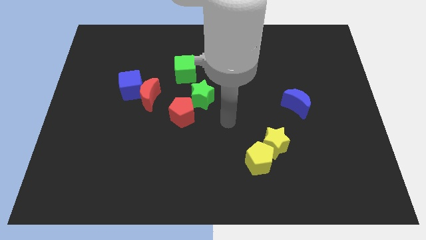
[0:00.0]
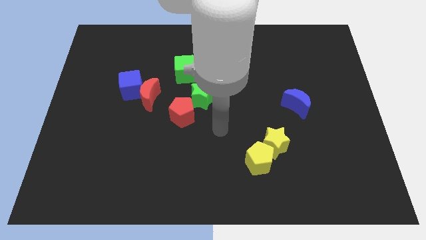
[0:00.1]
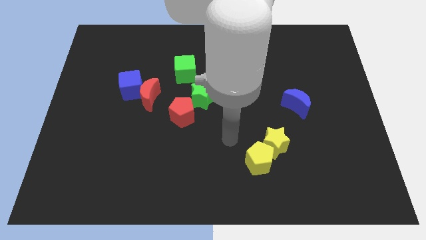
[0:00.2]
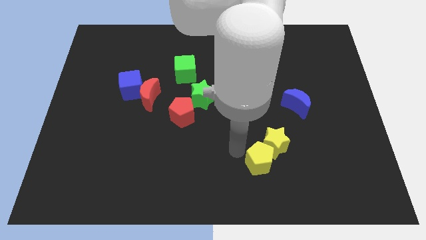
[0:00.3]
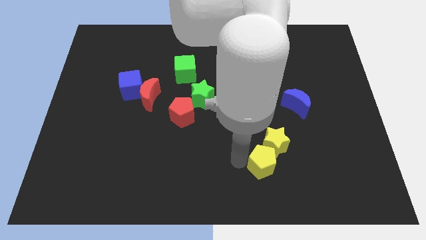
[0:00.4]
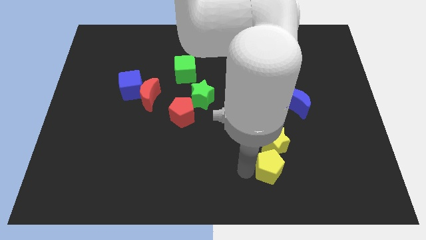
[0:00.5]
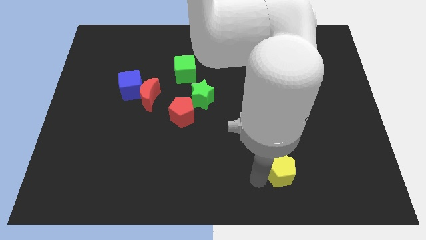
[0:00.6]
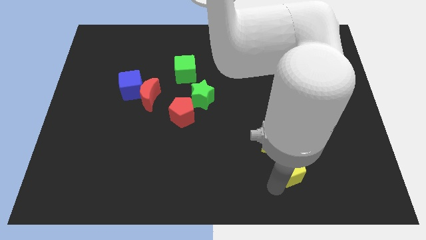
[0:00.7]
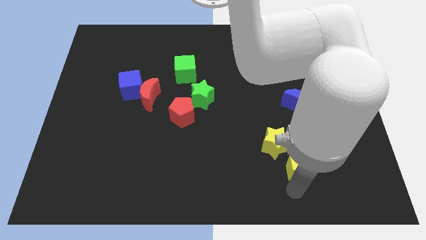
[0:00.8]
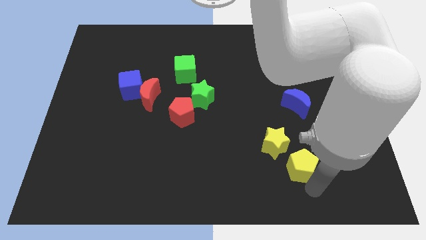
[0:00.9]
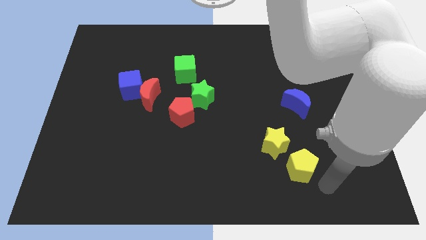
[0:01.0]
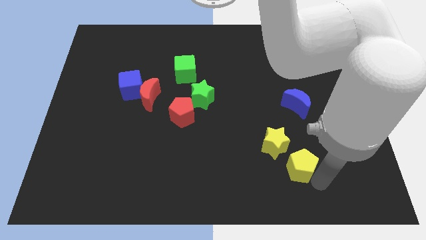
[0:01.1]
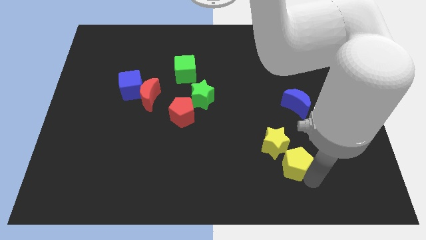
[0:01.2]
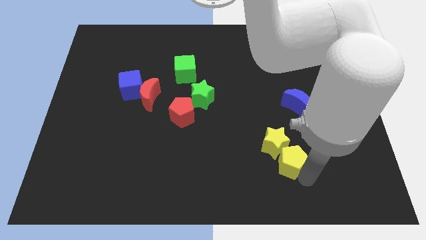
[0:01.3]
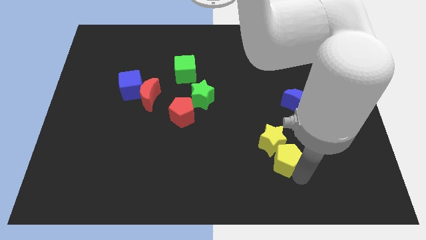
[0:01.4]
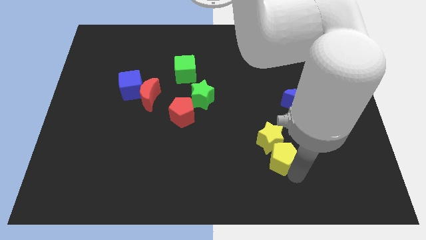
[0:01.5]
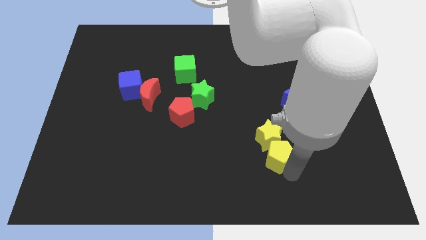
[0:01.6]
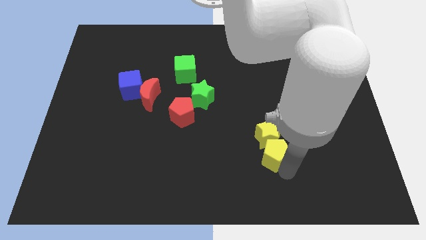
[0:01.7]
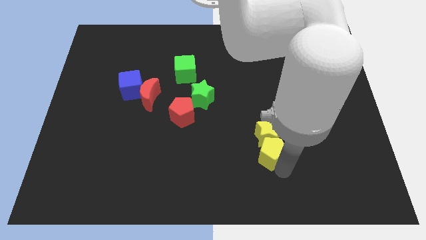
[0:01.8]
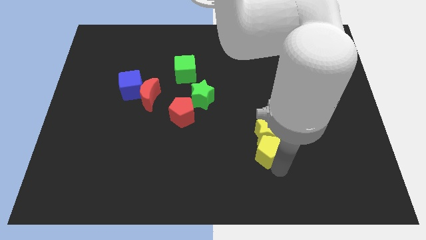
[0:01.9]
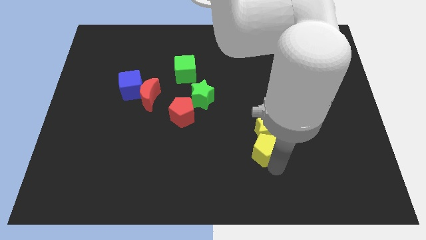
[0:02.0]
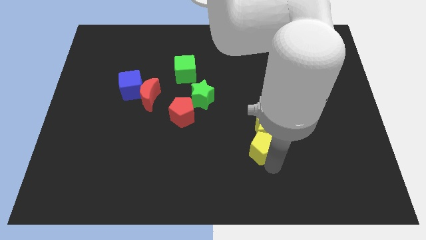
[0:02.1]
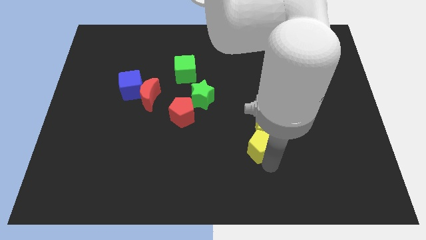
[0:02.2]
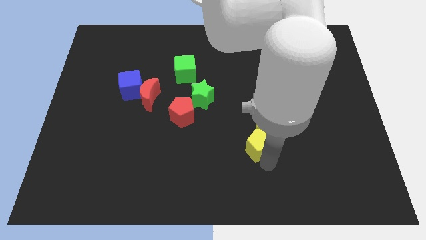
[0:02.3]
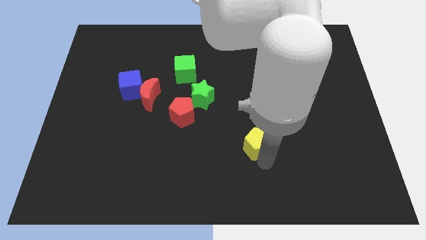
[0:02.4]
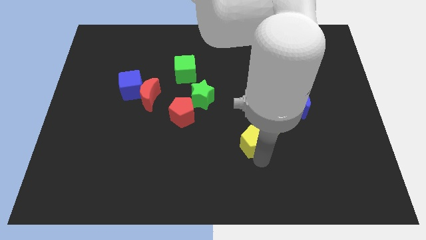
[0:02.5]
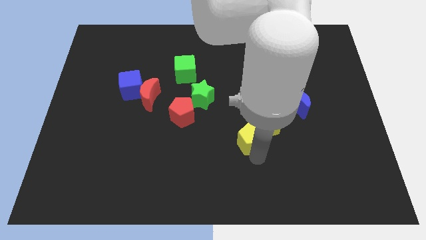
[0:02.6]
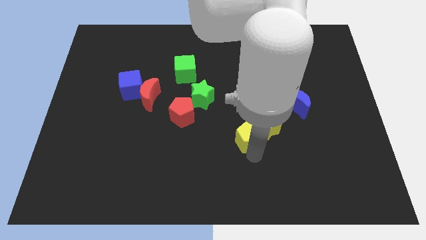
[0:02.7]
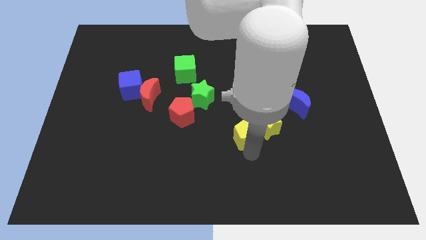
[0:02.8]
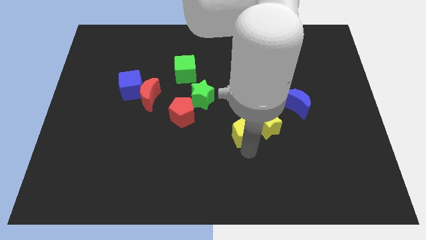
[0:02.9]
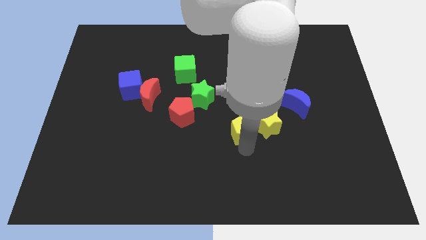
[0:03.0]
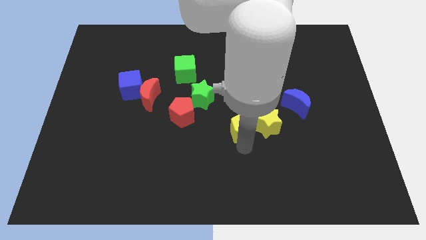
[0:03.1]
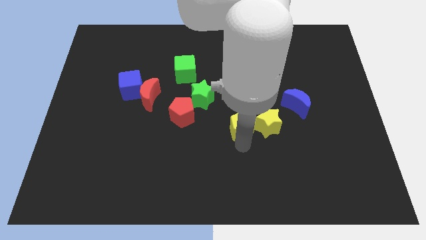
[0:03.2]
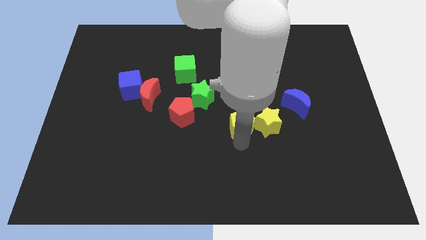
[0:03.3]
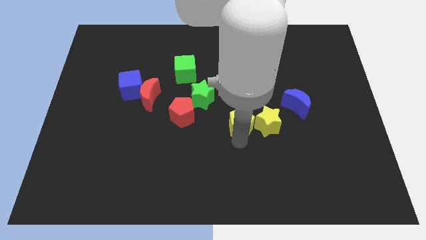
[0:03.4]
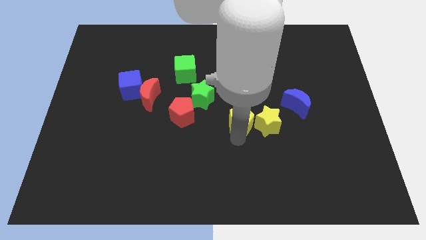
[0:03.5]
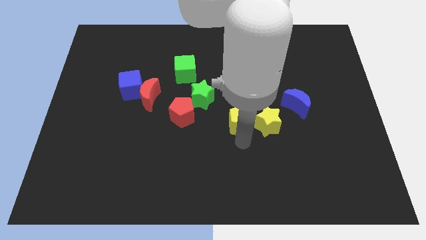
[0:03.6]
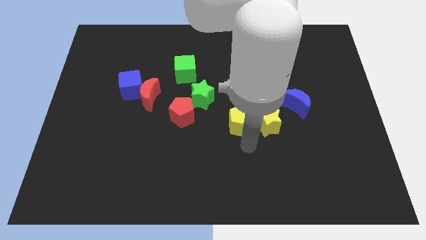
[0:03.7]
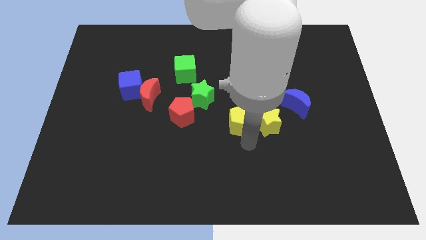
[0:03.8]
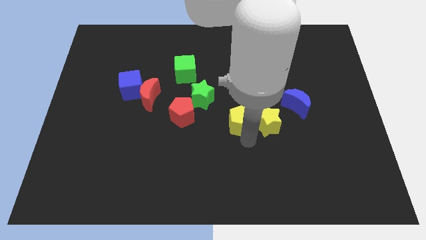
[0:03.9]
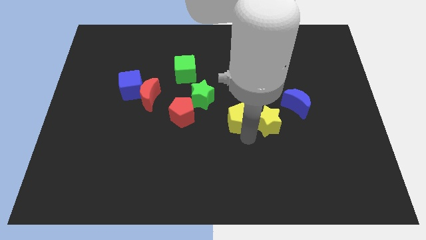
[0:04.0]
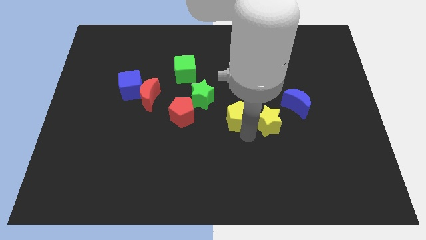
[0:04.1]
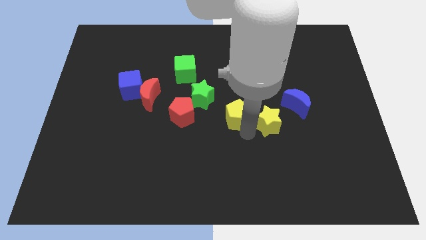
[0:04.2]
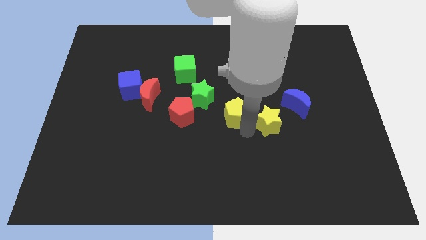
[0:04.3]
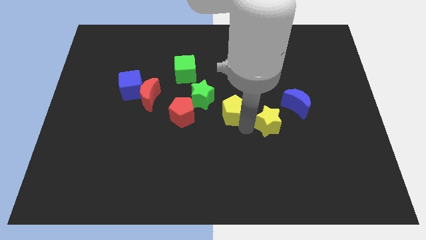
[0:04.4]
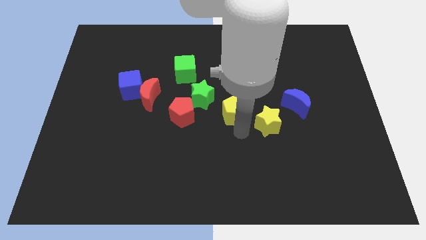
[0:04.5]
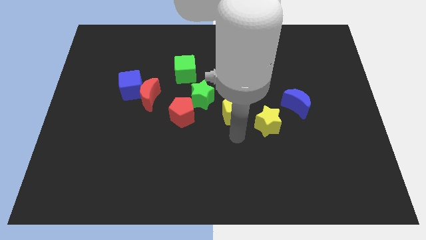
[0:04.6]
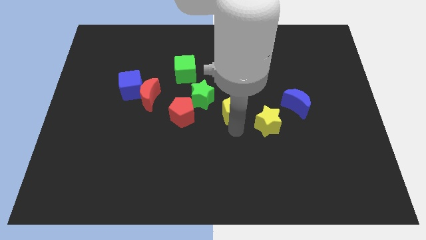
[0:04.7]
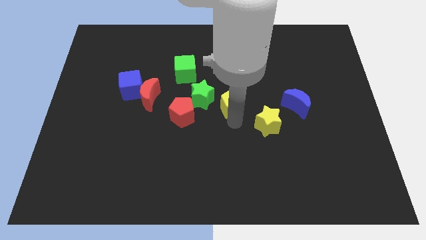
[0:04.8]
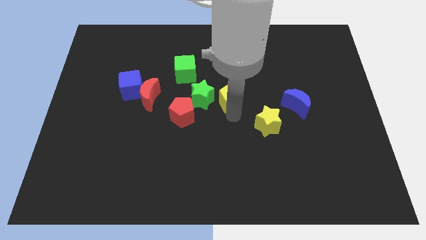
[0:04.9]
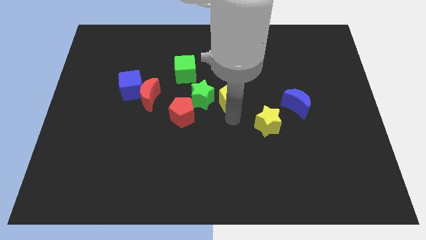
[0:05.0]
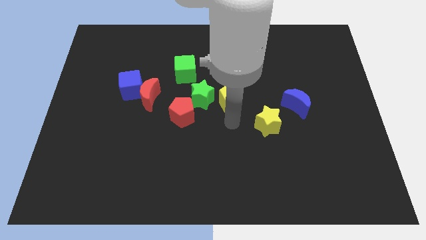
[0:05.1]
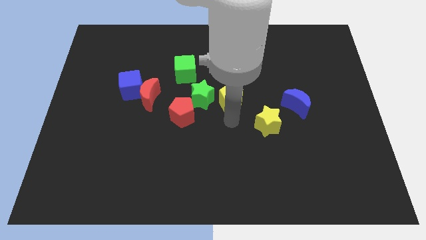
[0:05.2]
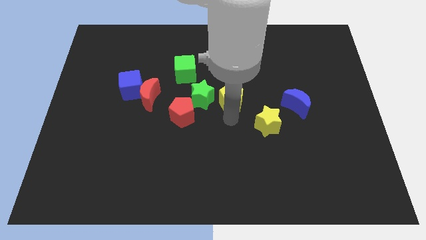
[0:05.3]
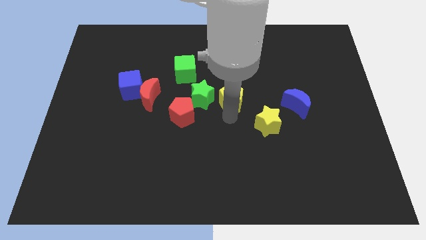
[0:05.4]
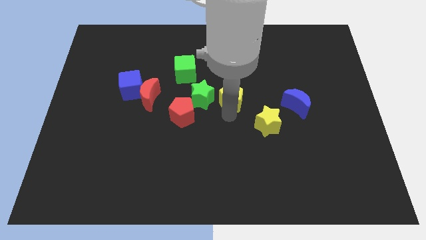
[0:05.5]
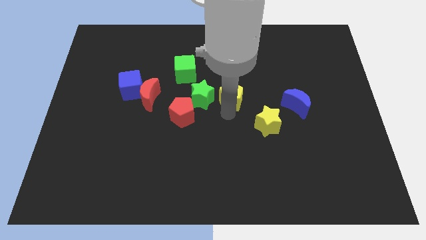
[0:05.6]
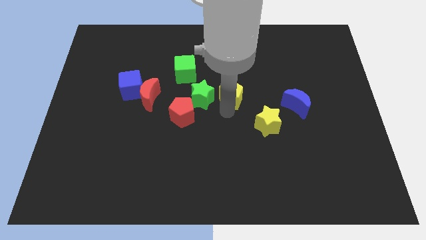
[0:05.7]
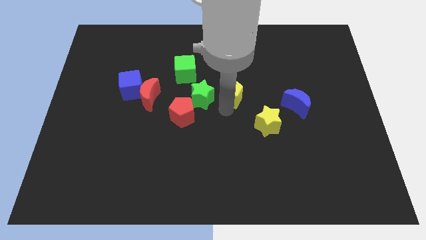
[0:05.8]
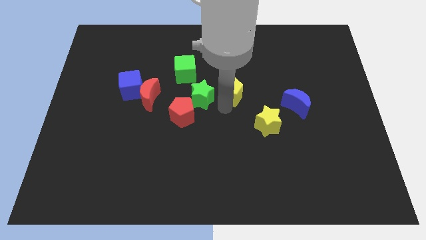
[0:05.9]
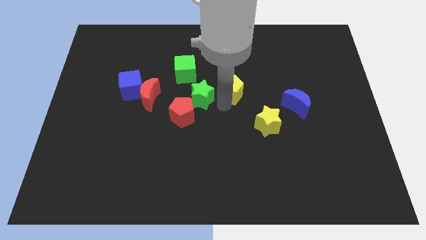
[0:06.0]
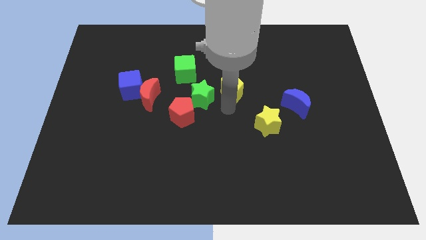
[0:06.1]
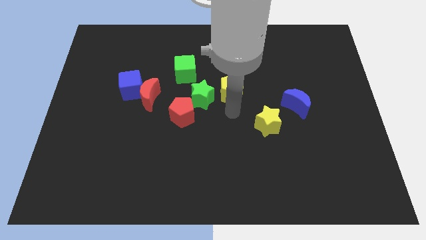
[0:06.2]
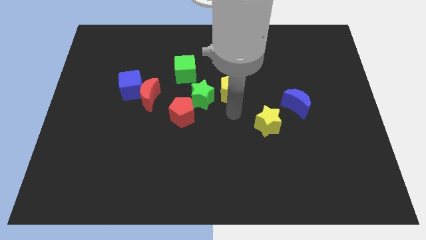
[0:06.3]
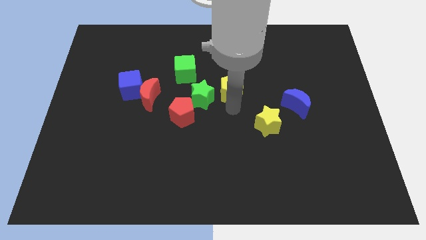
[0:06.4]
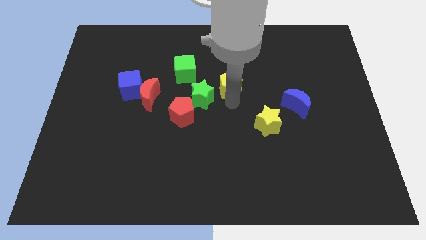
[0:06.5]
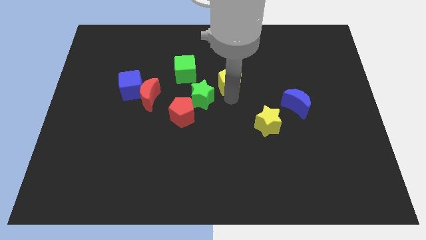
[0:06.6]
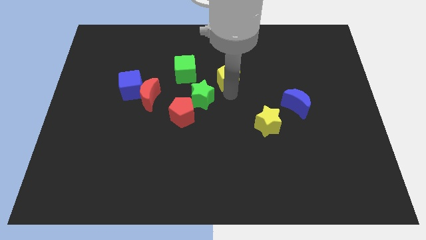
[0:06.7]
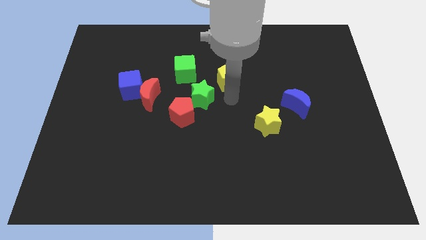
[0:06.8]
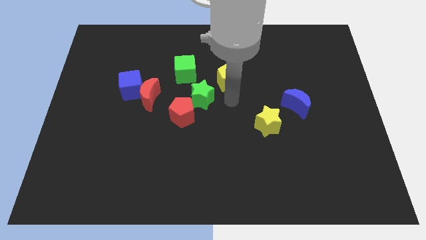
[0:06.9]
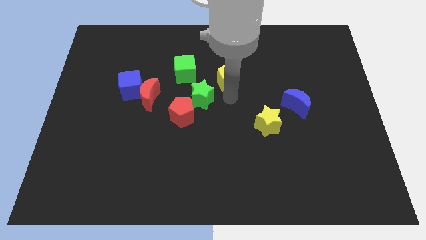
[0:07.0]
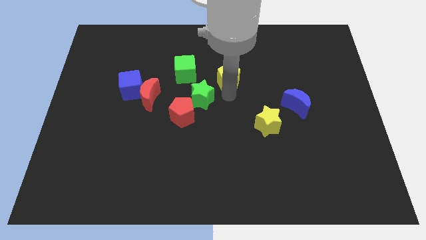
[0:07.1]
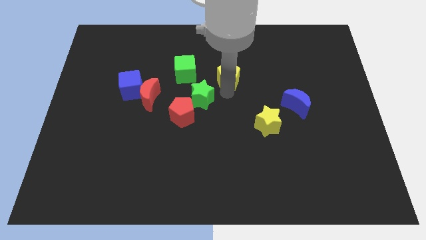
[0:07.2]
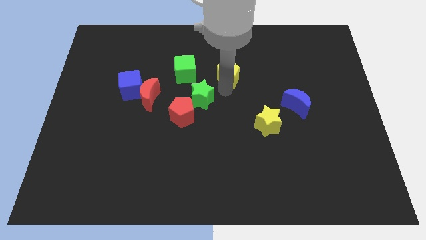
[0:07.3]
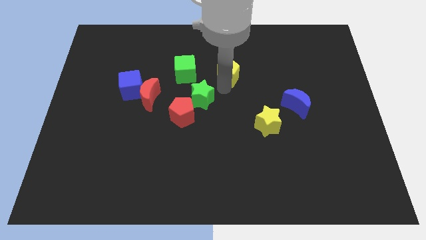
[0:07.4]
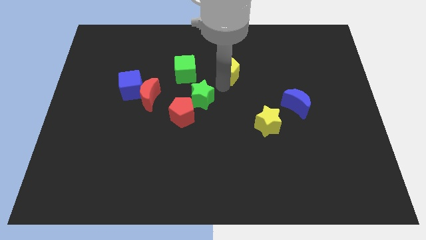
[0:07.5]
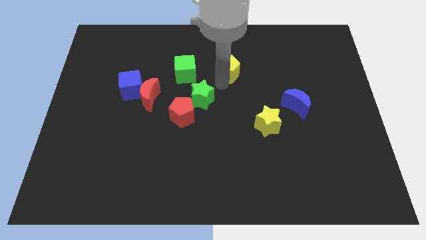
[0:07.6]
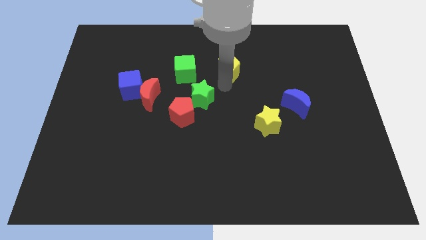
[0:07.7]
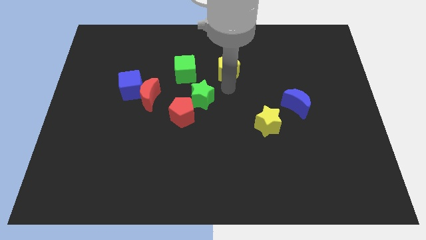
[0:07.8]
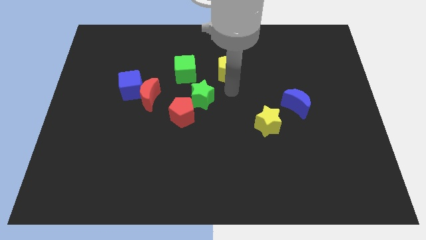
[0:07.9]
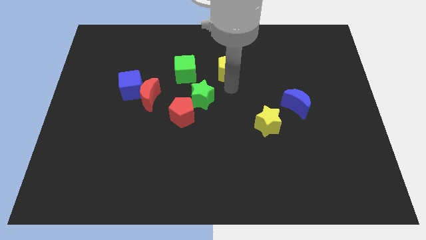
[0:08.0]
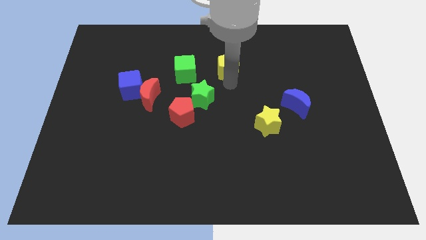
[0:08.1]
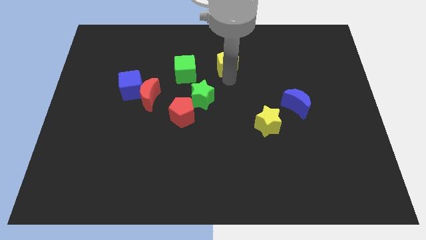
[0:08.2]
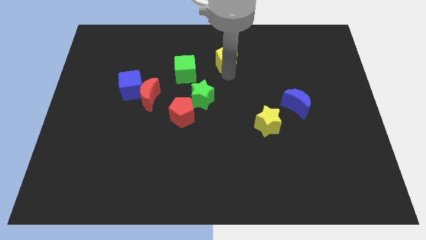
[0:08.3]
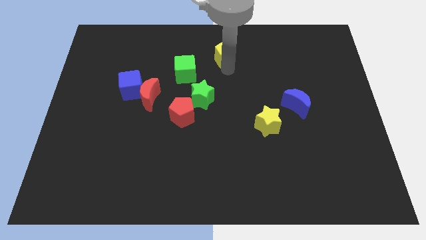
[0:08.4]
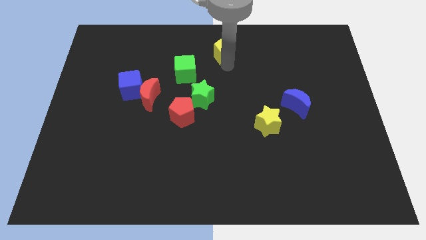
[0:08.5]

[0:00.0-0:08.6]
slide the yellow pentagon to the top side
